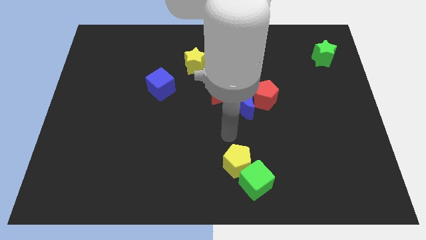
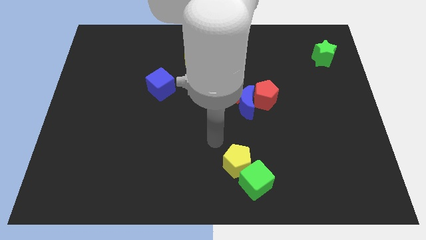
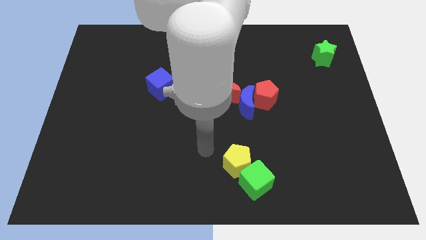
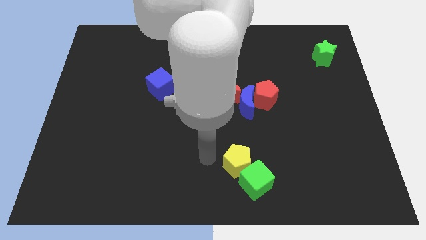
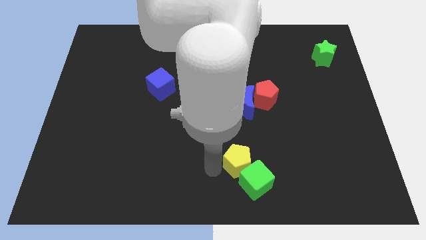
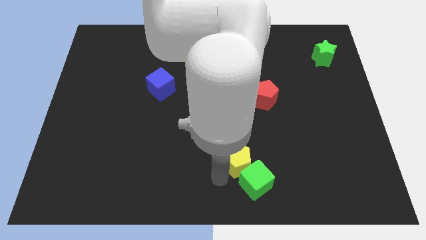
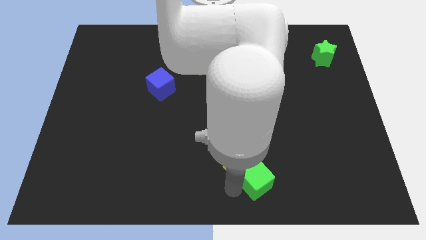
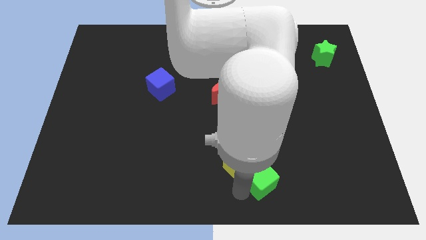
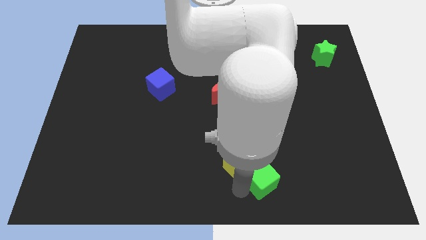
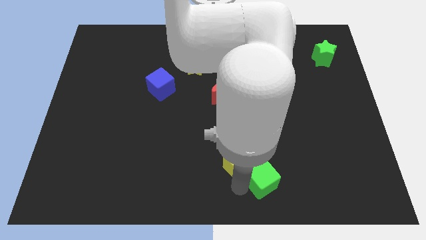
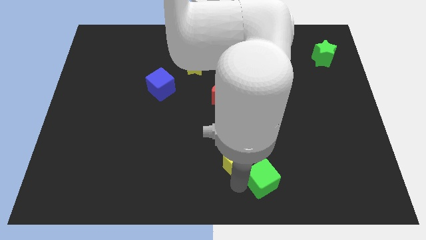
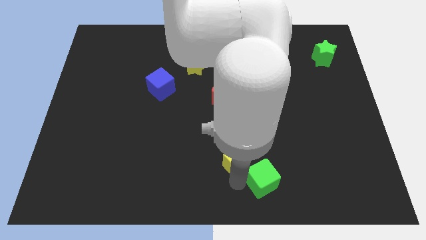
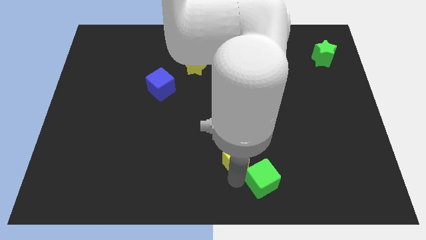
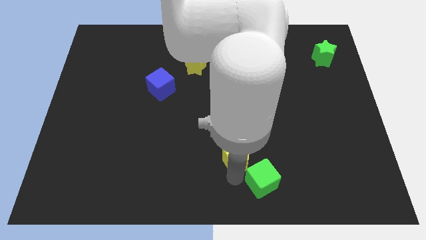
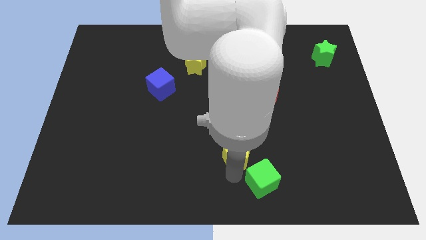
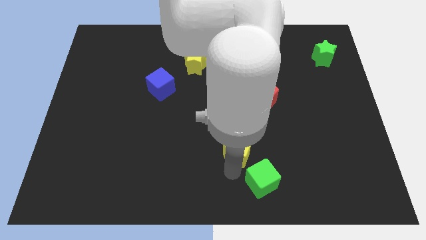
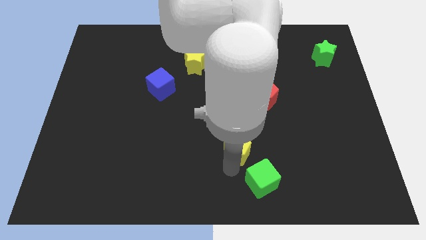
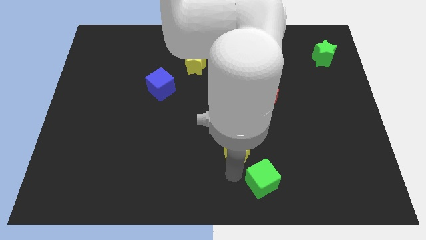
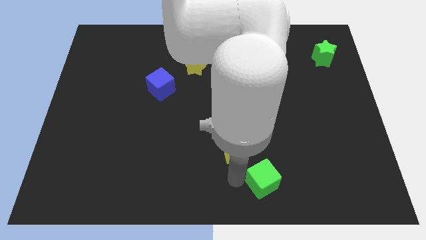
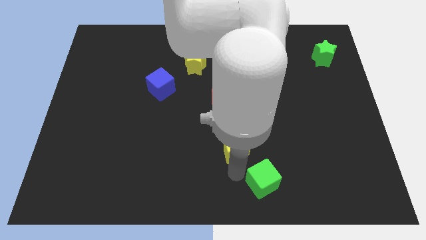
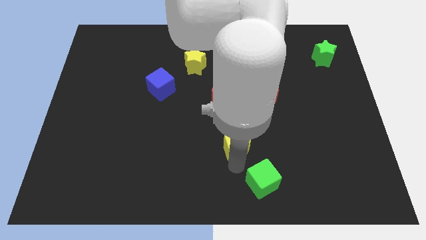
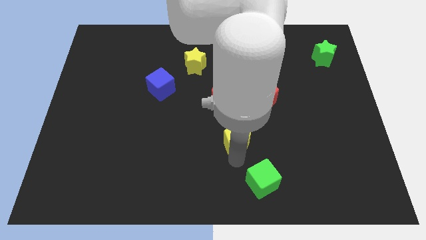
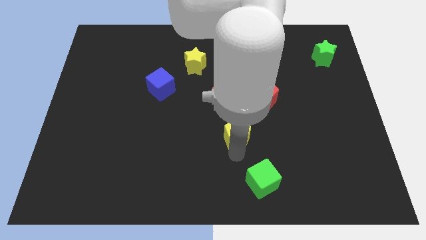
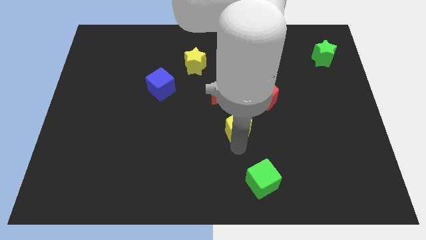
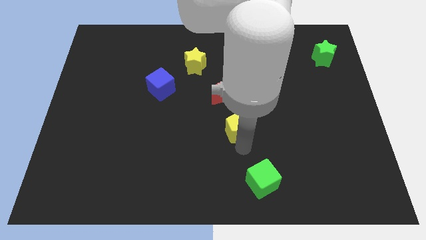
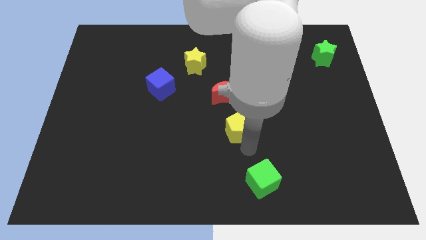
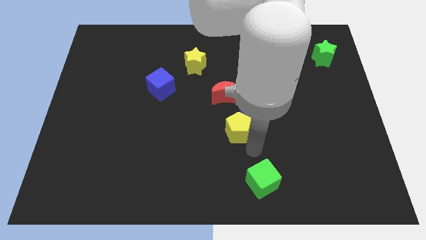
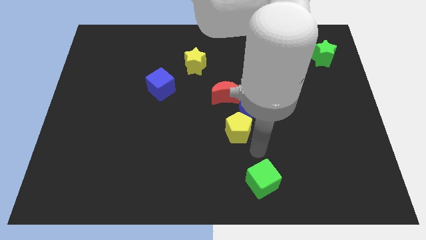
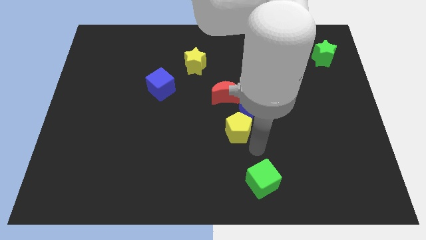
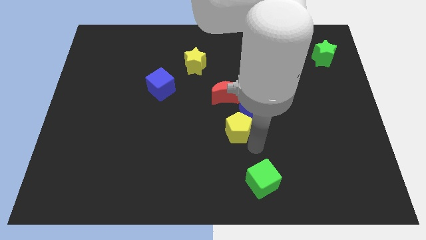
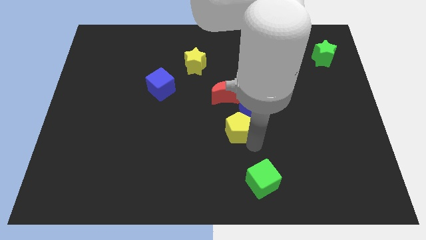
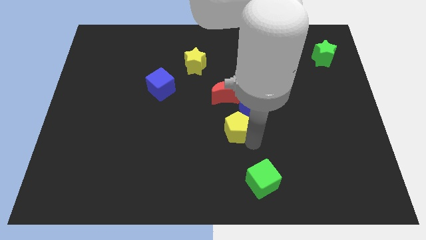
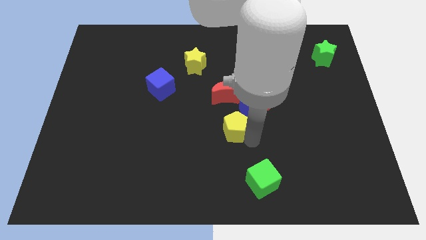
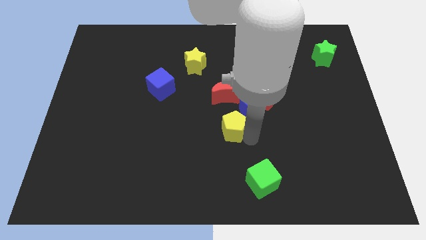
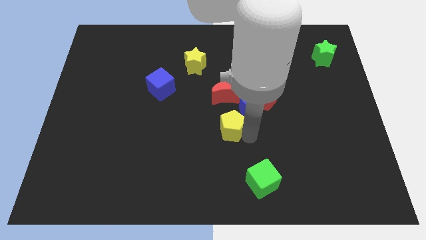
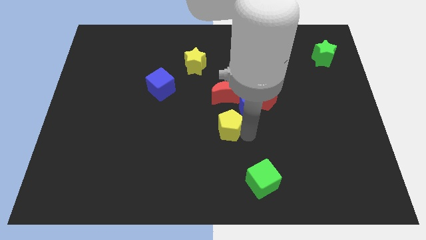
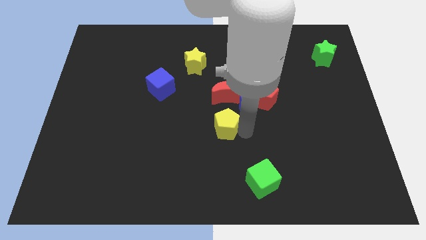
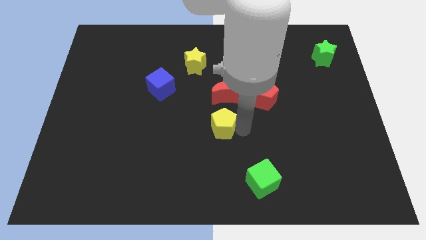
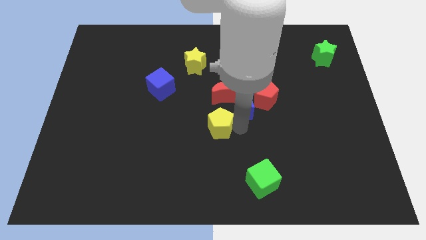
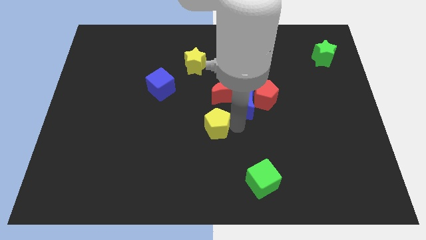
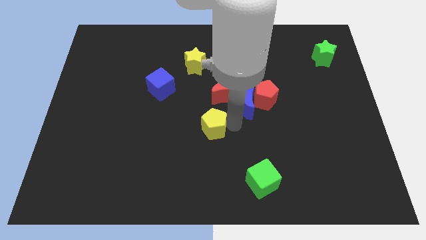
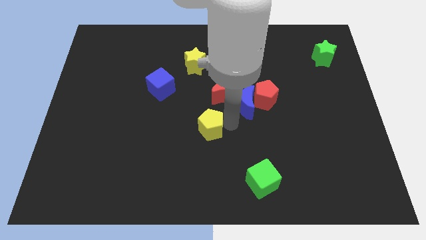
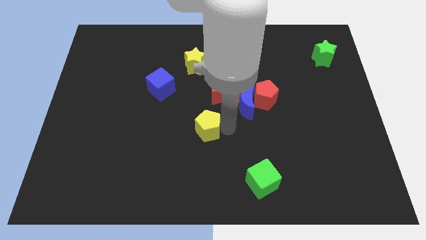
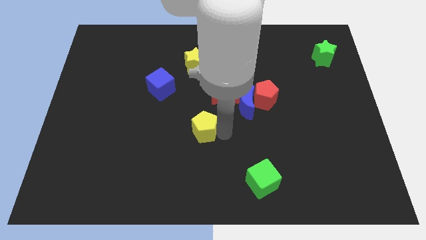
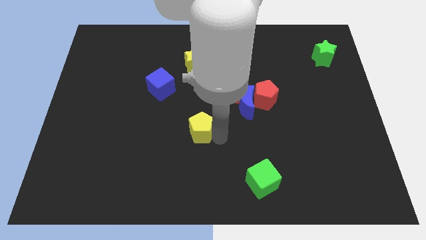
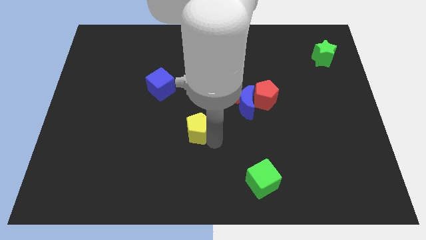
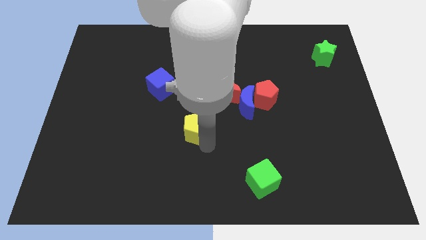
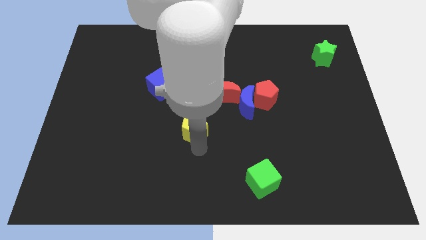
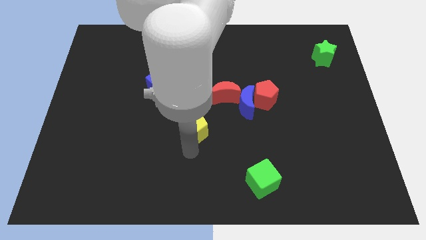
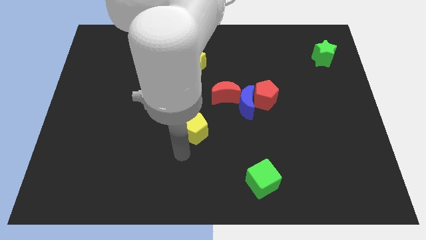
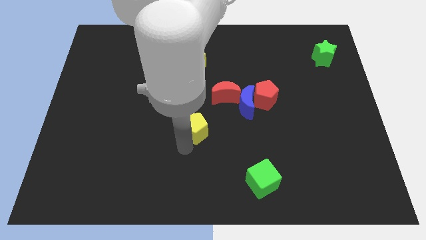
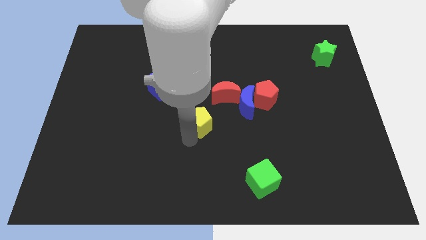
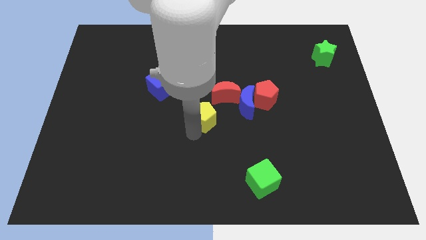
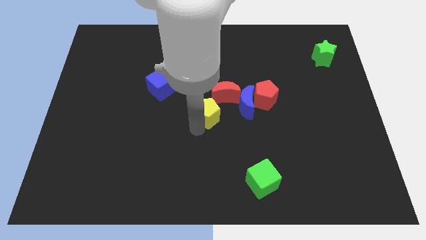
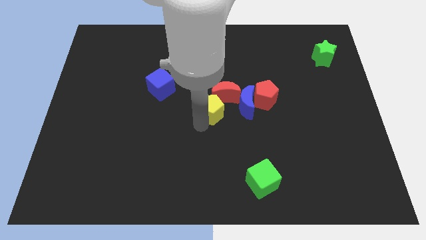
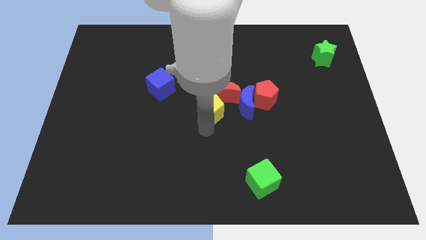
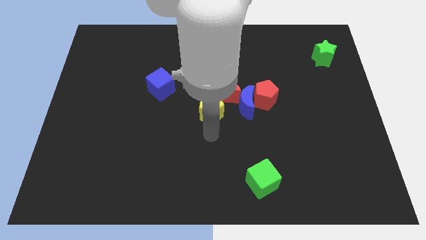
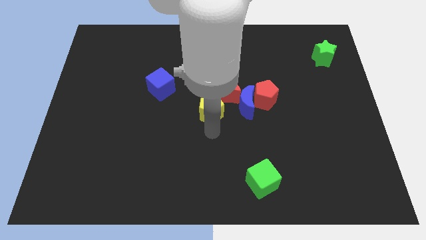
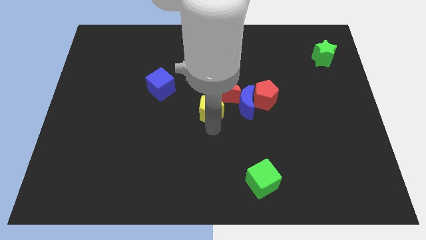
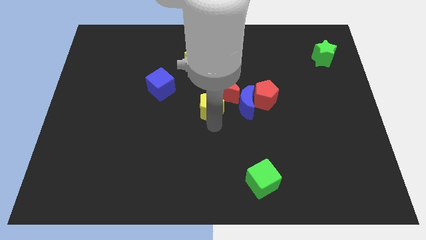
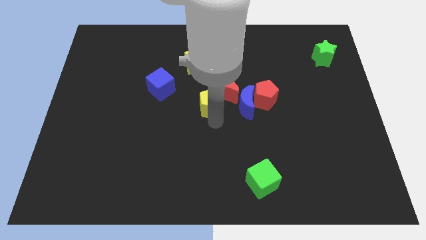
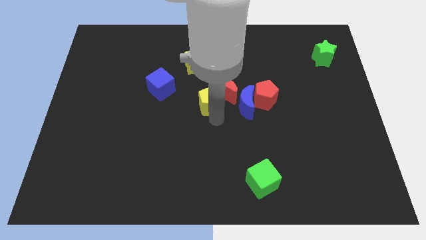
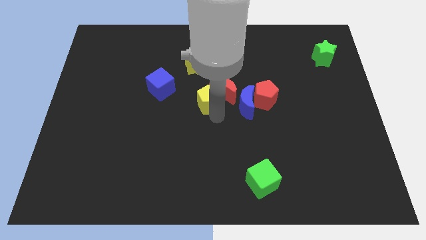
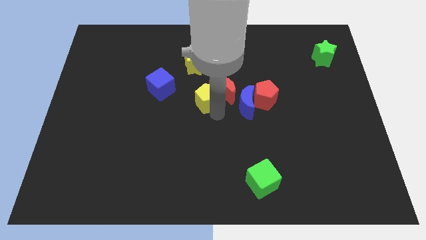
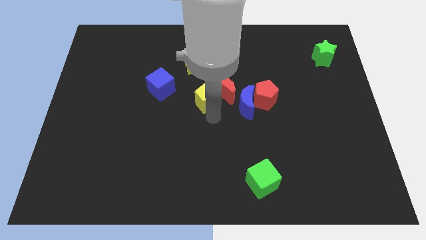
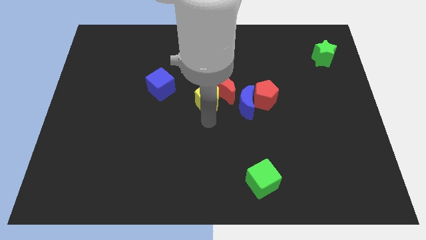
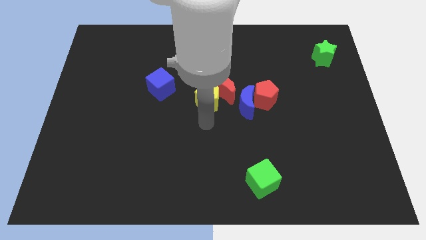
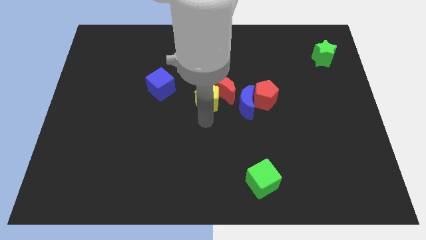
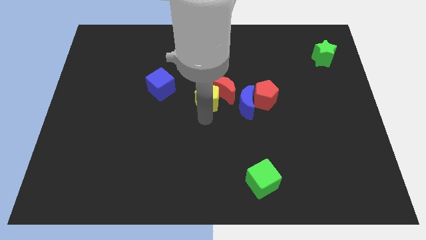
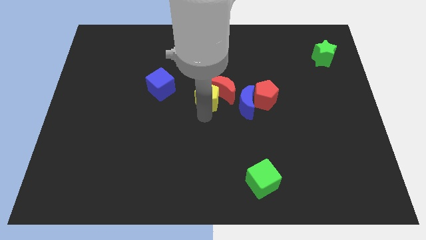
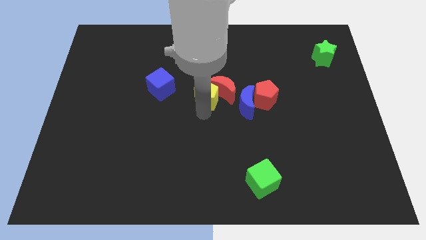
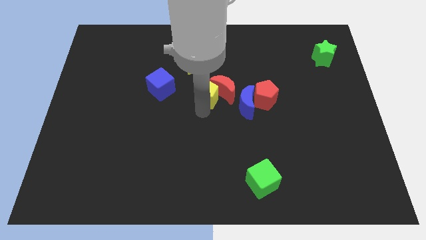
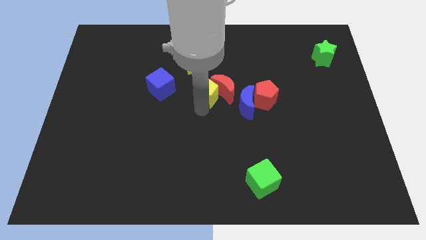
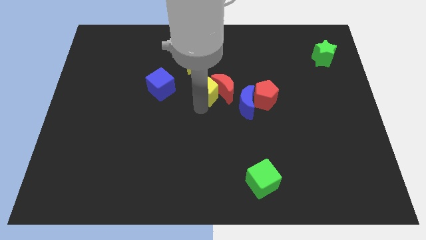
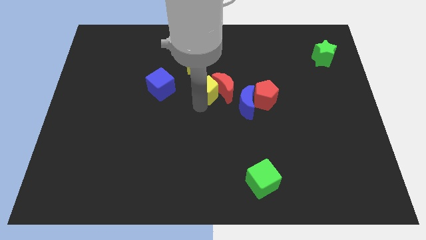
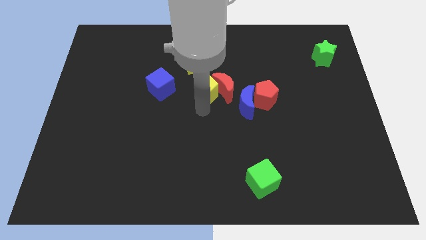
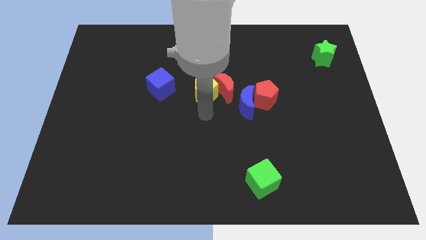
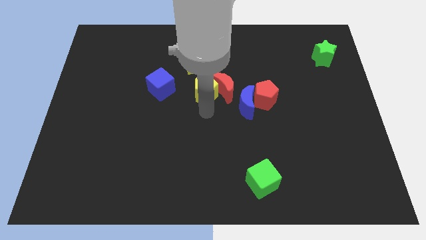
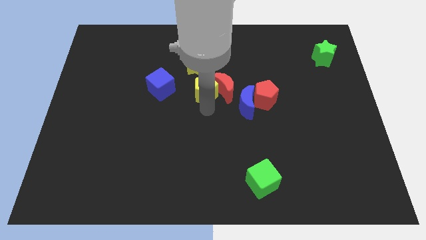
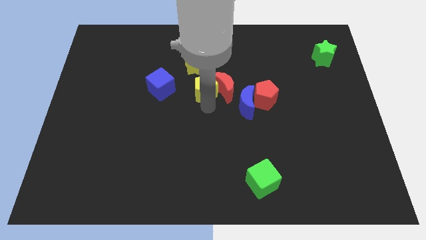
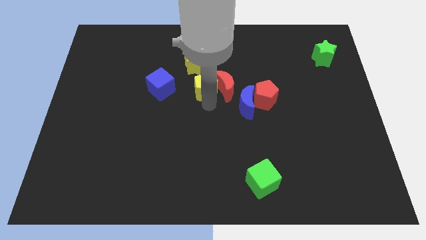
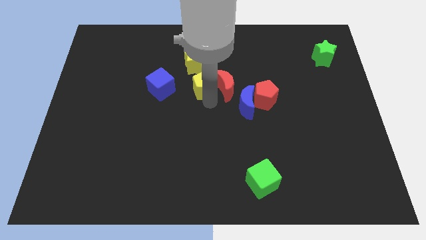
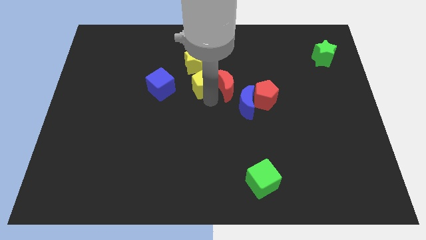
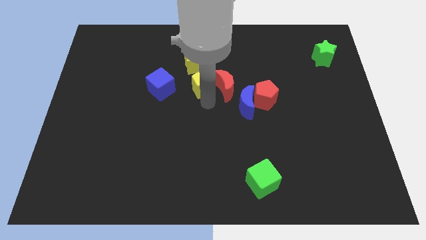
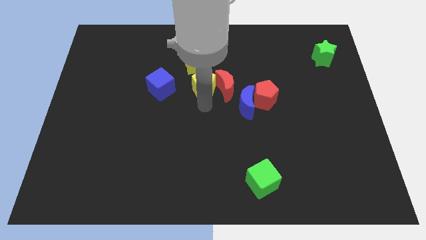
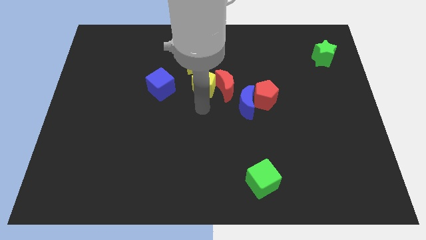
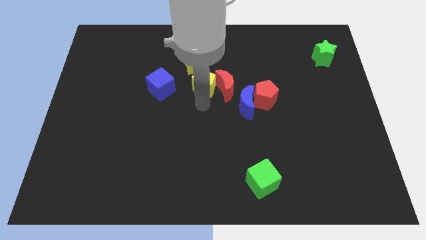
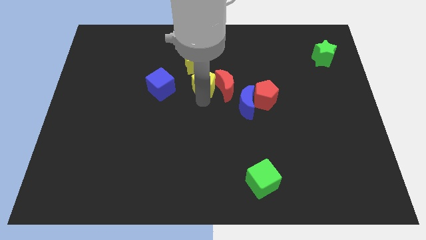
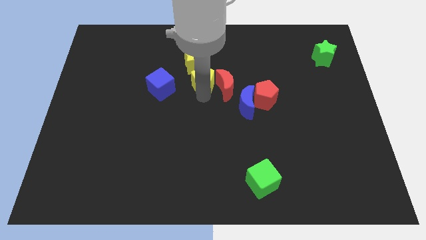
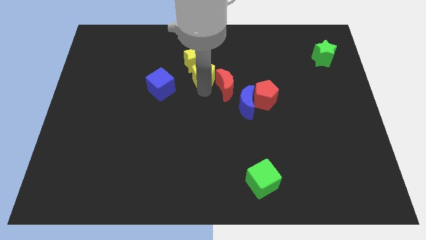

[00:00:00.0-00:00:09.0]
move the yellow pentagon to the yellow star
